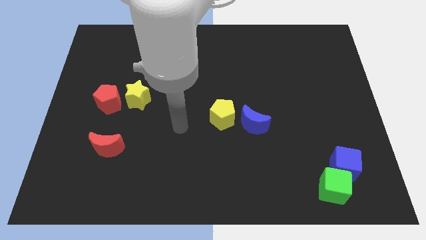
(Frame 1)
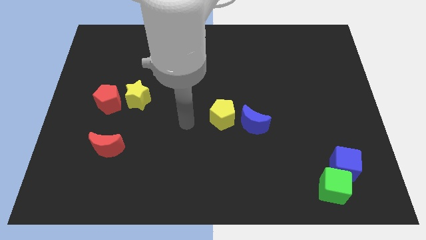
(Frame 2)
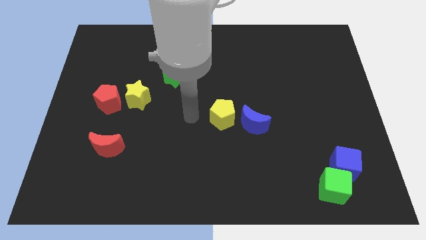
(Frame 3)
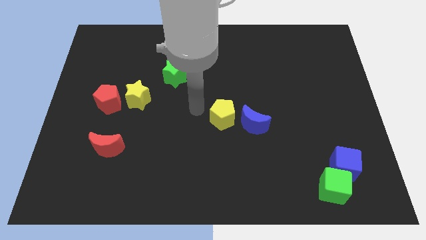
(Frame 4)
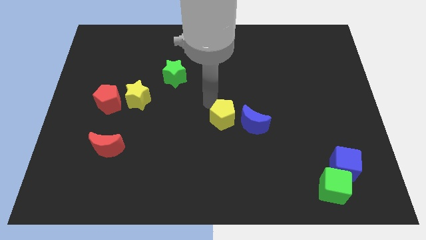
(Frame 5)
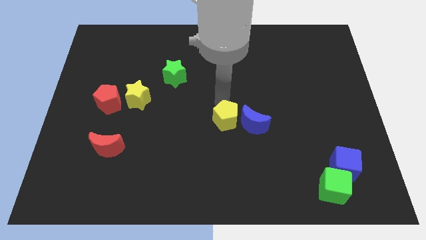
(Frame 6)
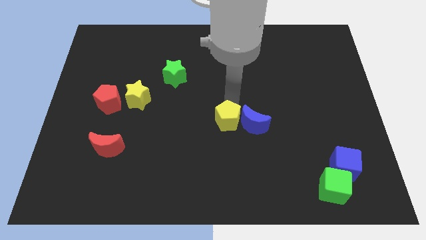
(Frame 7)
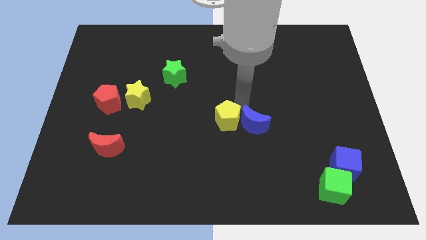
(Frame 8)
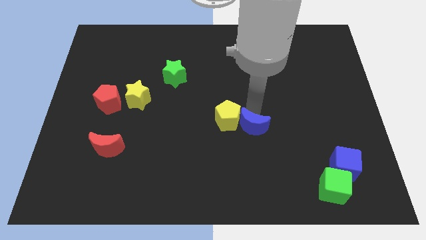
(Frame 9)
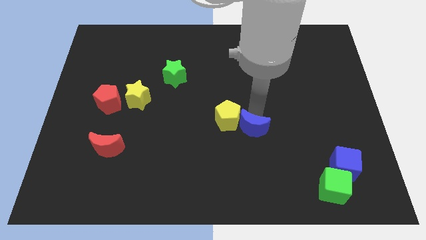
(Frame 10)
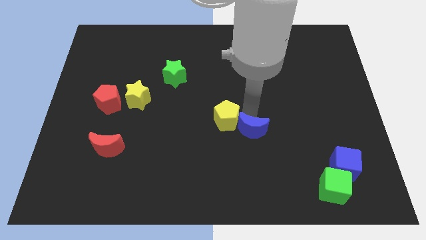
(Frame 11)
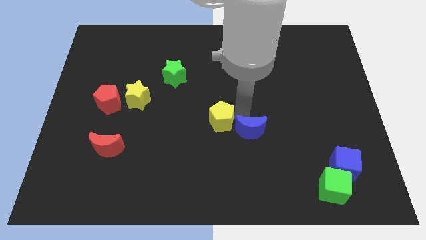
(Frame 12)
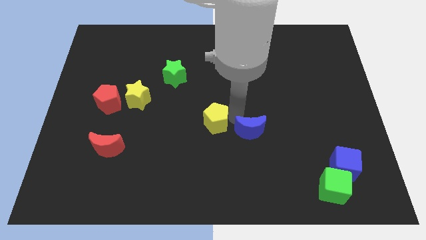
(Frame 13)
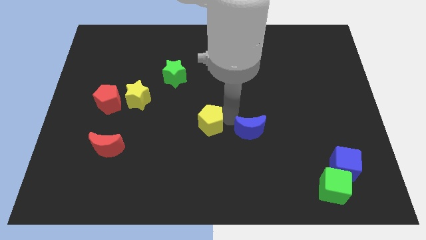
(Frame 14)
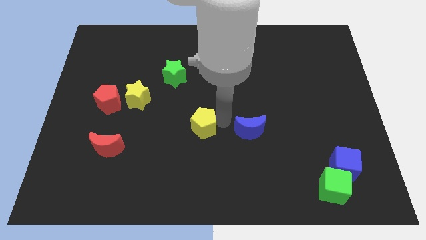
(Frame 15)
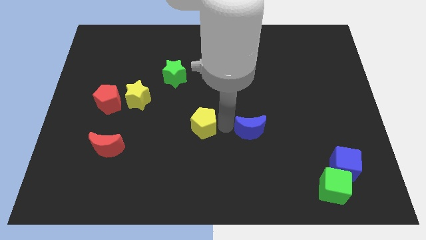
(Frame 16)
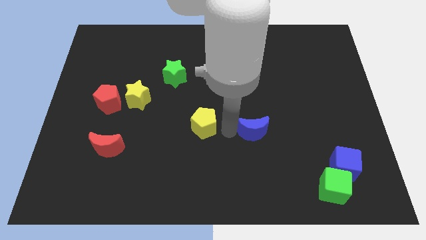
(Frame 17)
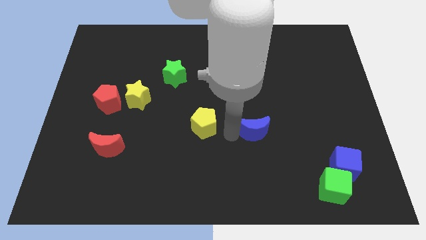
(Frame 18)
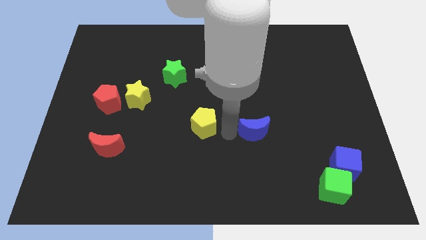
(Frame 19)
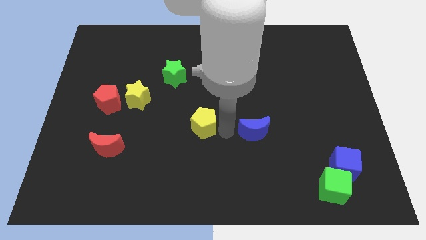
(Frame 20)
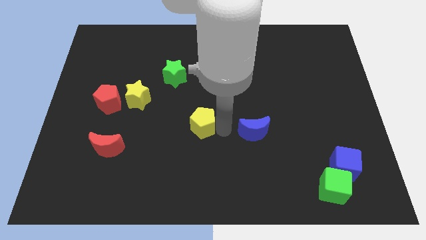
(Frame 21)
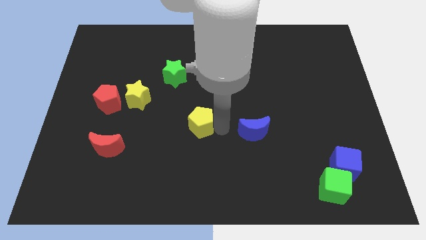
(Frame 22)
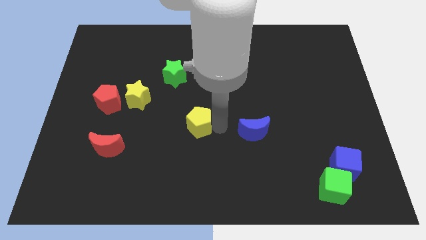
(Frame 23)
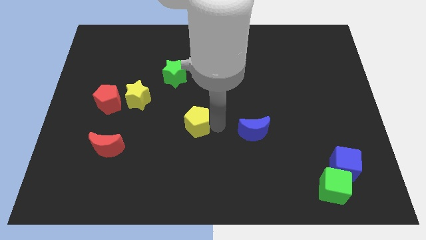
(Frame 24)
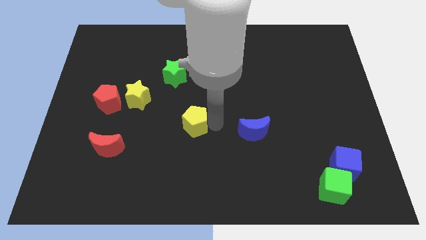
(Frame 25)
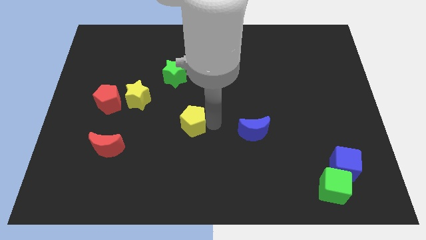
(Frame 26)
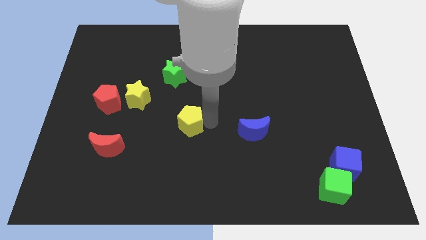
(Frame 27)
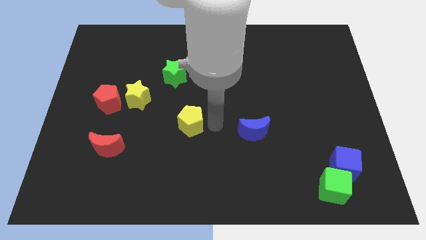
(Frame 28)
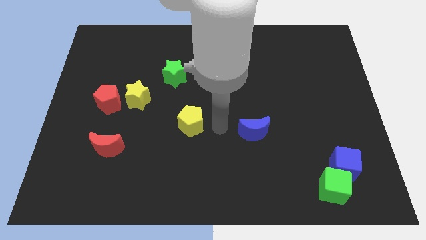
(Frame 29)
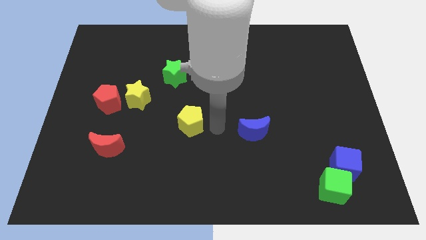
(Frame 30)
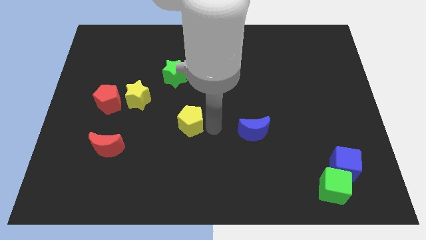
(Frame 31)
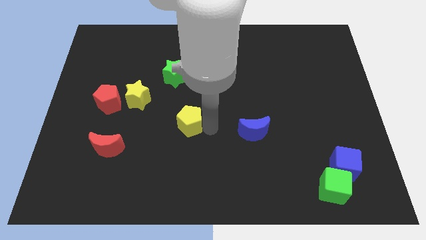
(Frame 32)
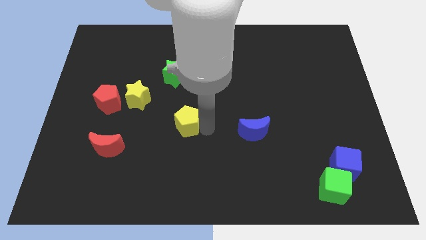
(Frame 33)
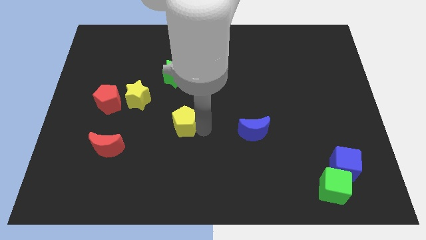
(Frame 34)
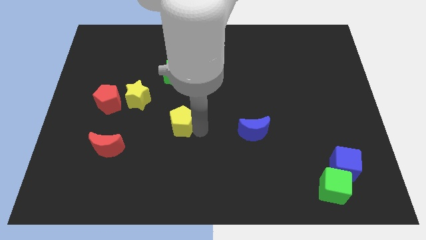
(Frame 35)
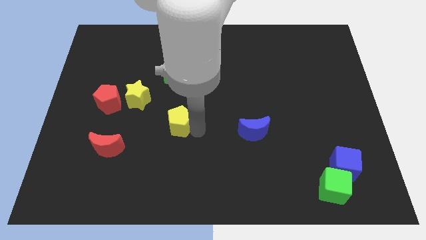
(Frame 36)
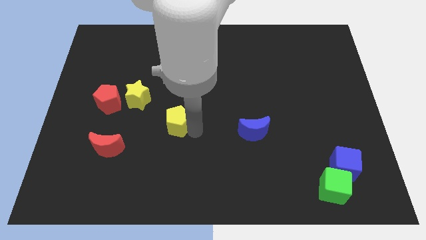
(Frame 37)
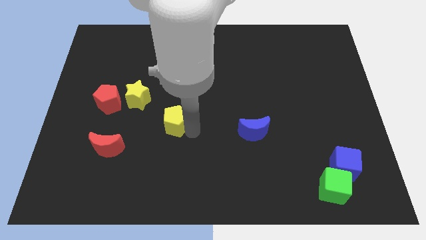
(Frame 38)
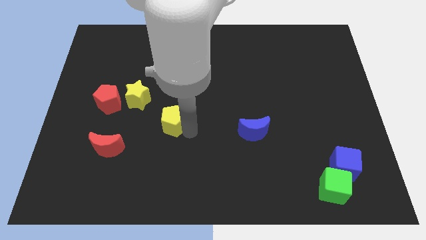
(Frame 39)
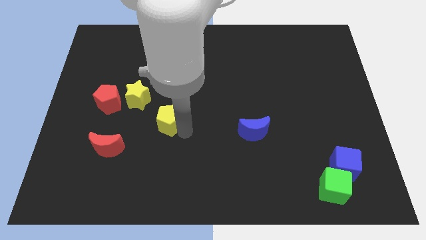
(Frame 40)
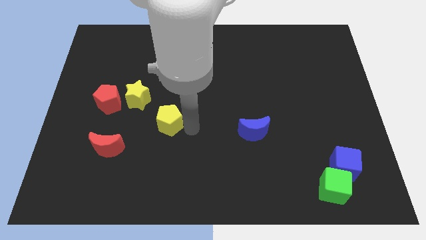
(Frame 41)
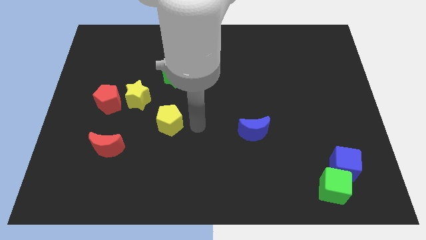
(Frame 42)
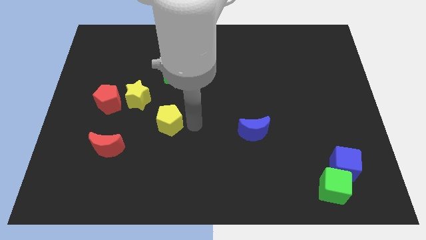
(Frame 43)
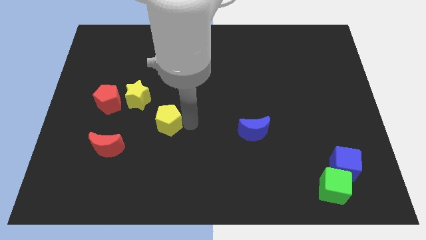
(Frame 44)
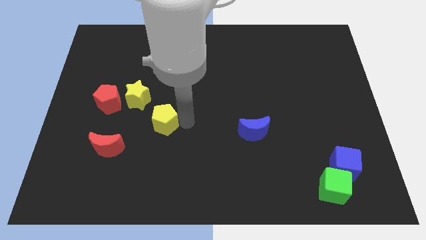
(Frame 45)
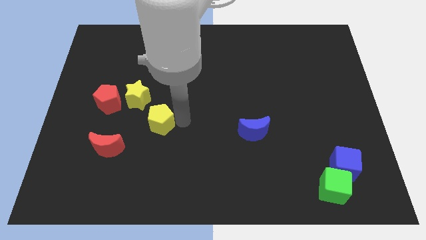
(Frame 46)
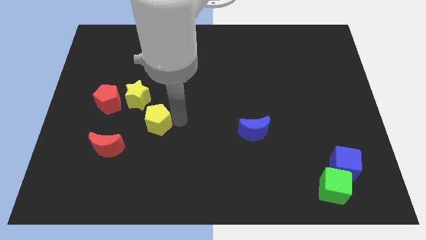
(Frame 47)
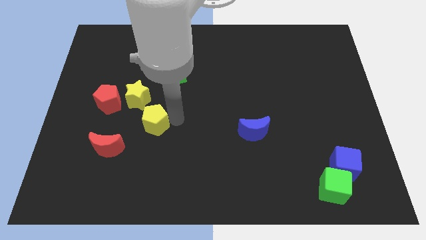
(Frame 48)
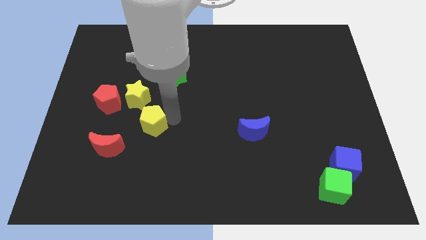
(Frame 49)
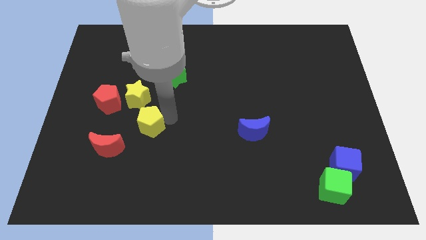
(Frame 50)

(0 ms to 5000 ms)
push the yellow pentagon diagonally down and to the right of the red pentagon

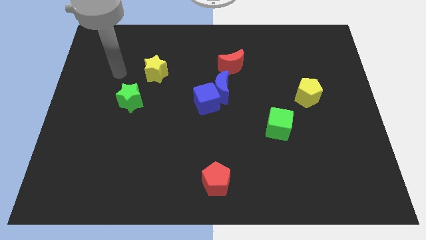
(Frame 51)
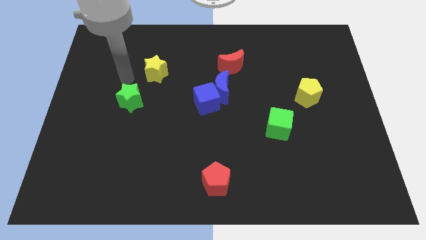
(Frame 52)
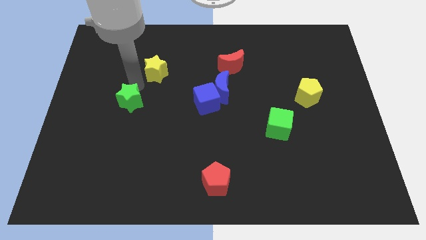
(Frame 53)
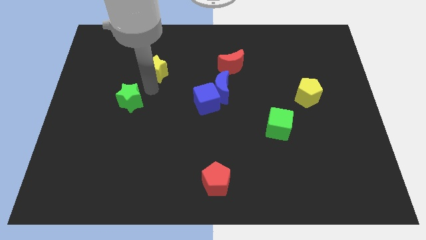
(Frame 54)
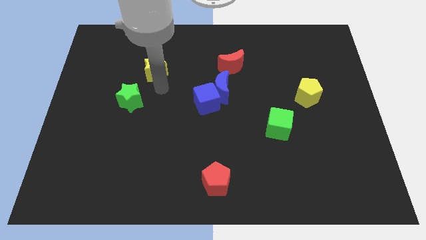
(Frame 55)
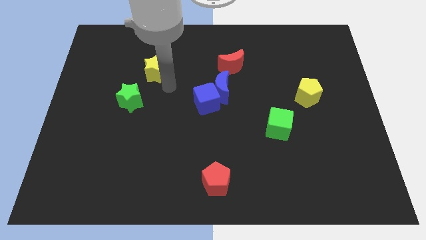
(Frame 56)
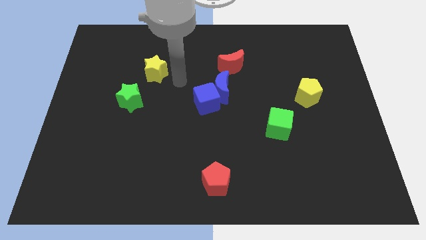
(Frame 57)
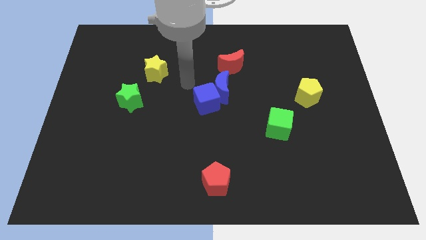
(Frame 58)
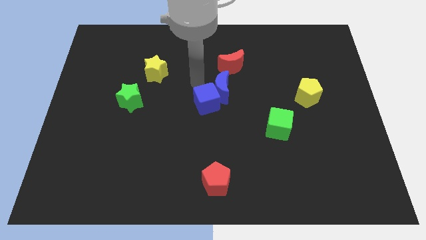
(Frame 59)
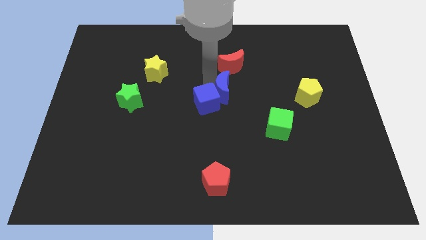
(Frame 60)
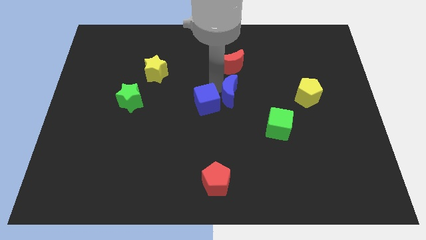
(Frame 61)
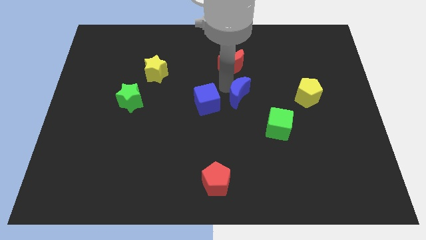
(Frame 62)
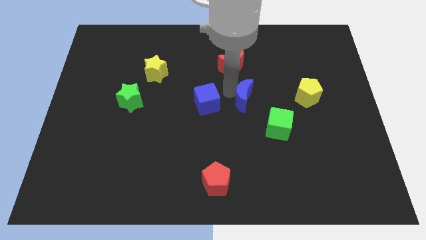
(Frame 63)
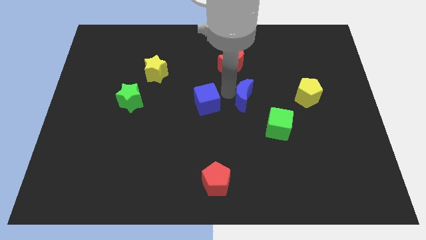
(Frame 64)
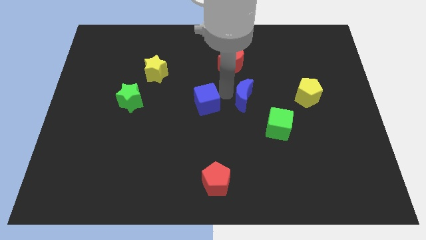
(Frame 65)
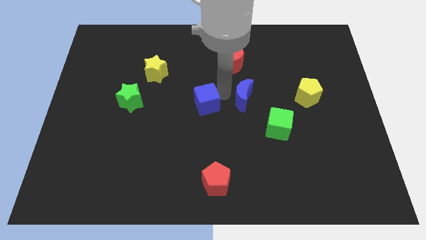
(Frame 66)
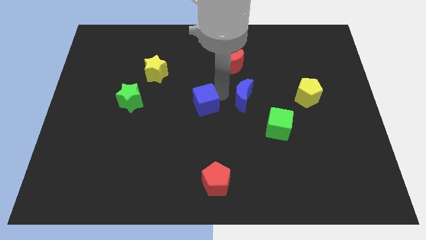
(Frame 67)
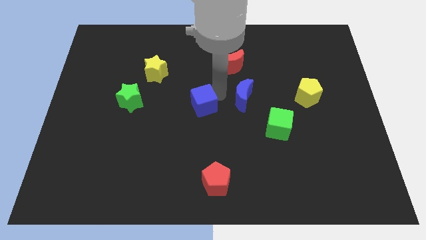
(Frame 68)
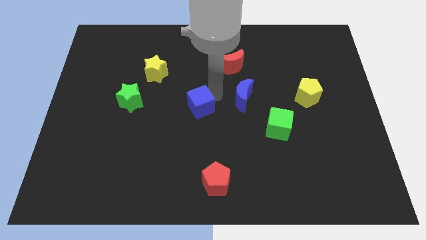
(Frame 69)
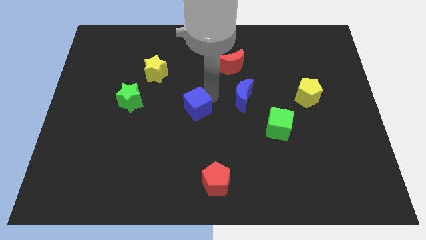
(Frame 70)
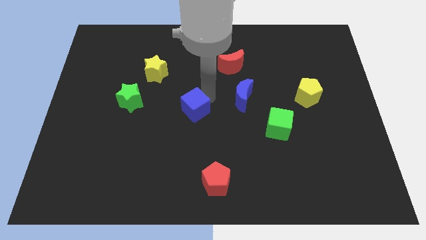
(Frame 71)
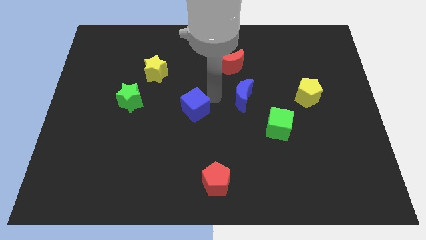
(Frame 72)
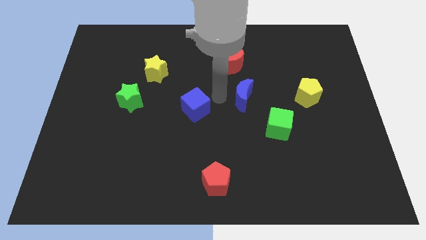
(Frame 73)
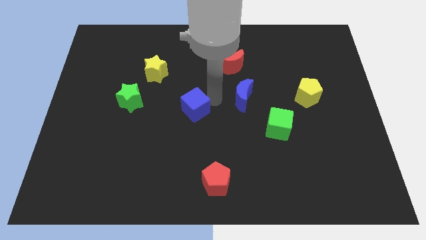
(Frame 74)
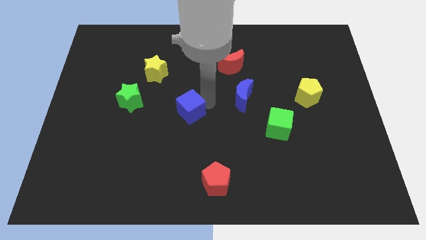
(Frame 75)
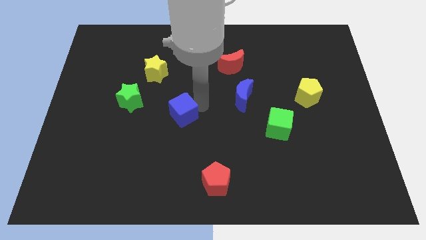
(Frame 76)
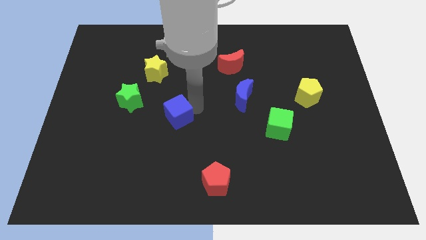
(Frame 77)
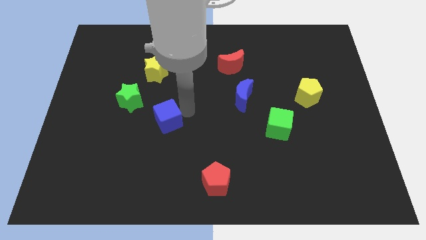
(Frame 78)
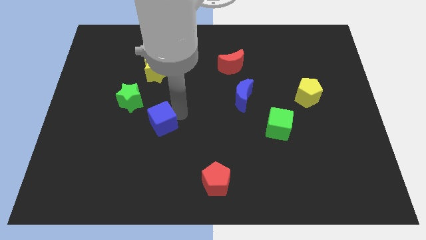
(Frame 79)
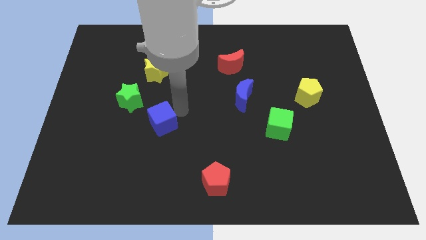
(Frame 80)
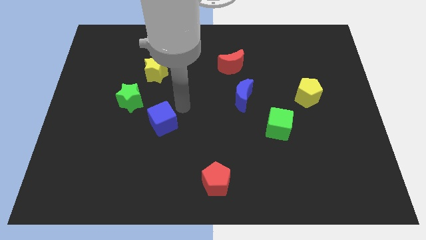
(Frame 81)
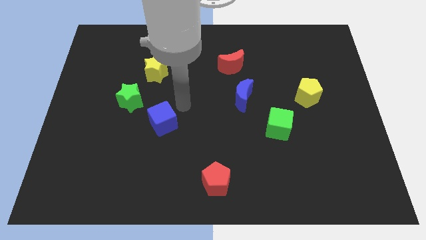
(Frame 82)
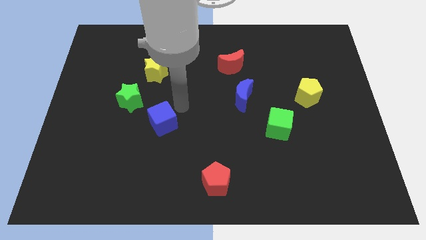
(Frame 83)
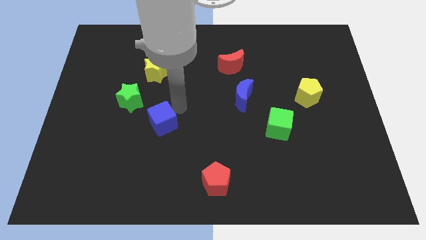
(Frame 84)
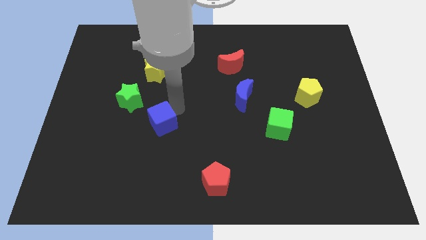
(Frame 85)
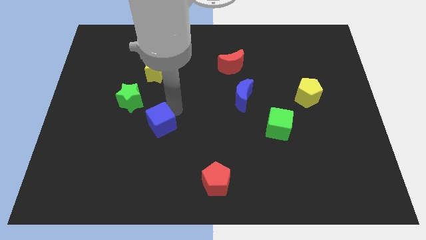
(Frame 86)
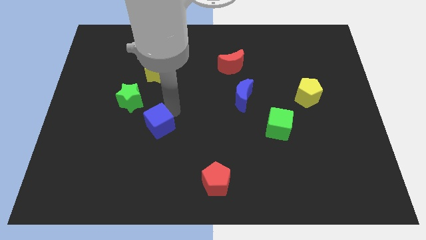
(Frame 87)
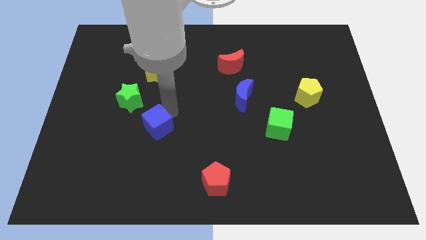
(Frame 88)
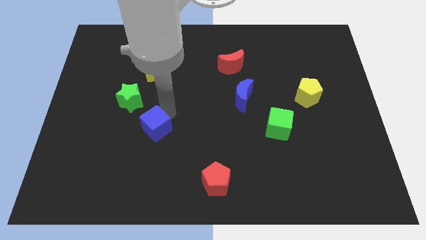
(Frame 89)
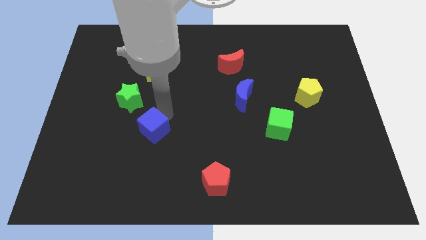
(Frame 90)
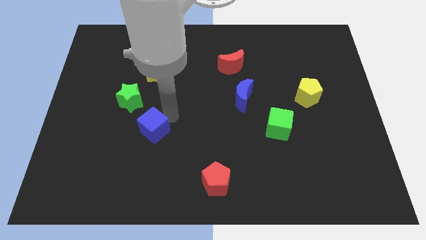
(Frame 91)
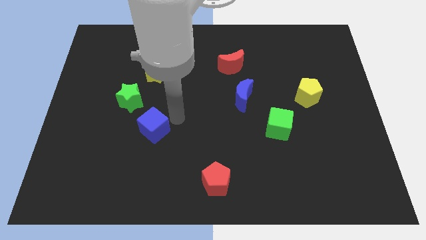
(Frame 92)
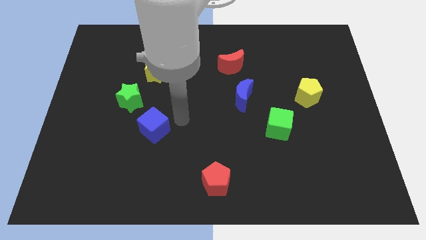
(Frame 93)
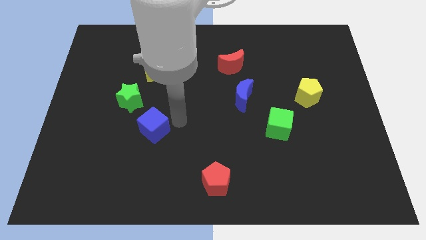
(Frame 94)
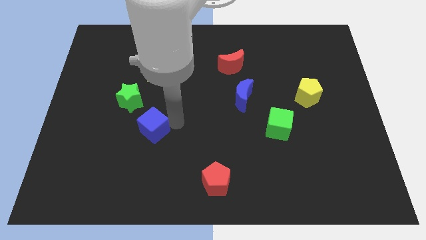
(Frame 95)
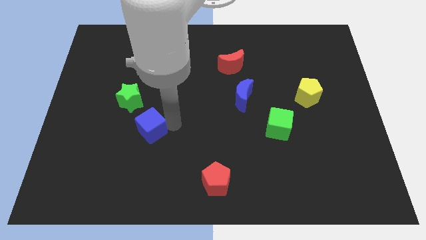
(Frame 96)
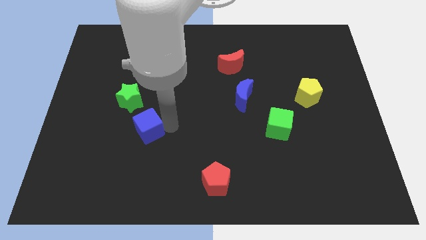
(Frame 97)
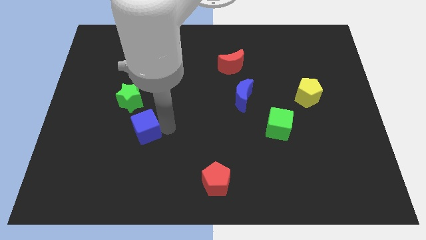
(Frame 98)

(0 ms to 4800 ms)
move the blue cube to the bottom of the green star
